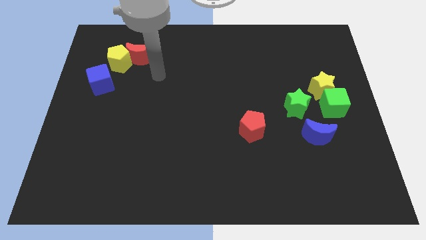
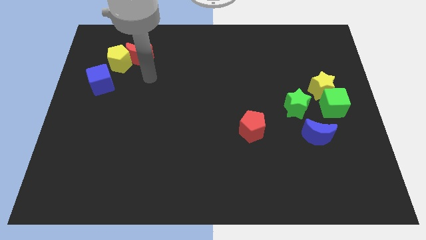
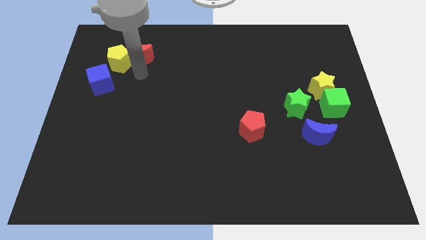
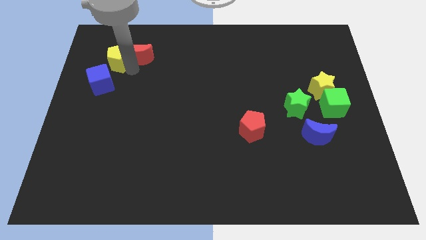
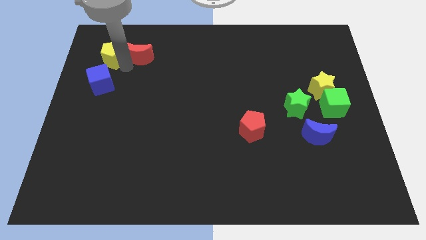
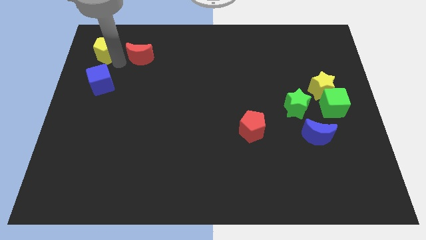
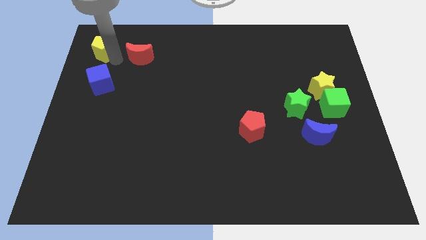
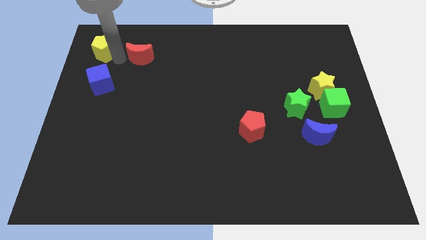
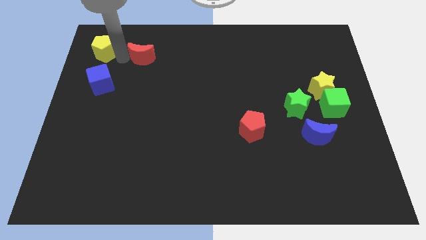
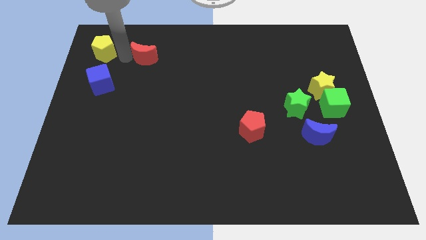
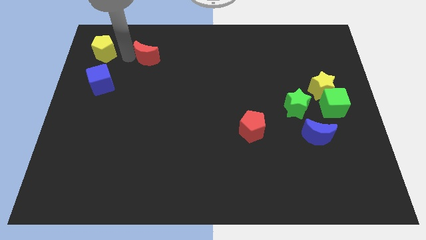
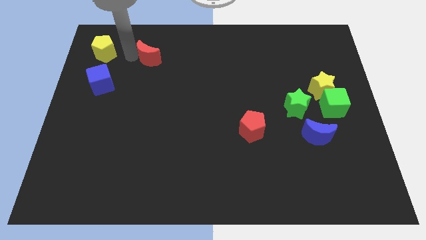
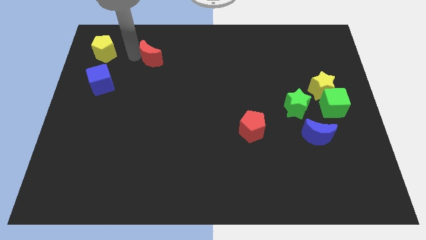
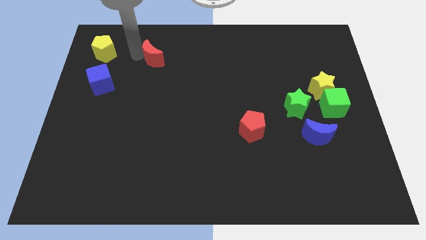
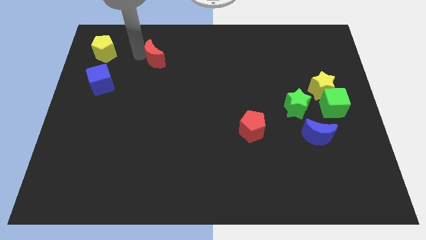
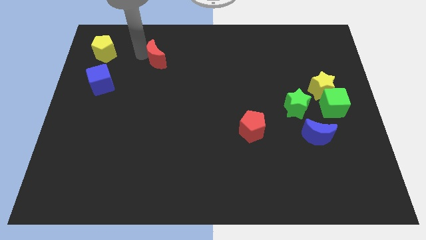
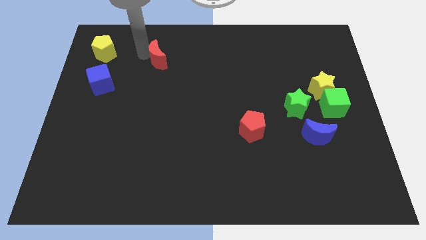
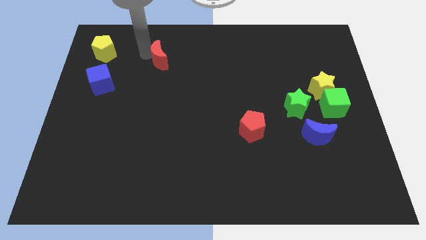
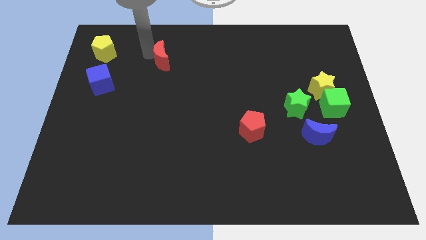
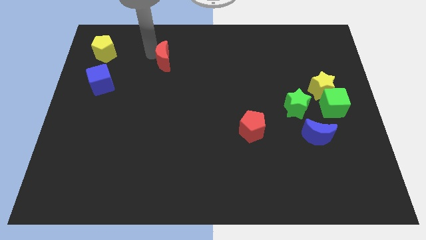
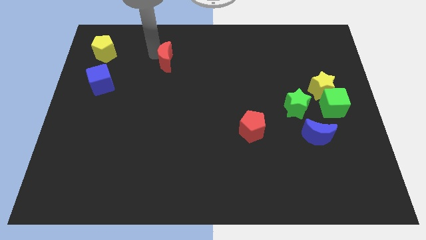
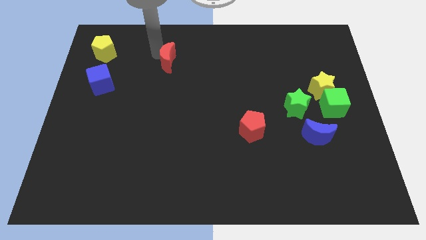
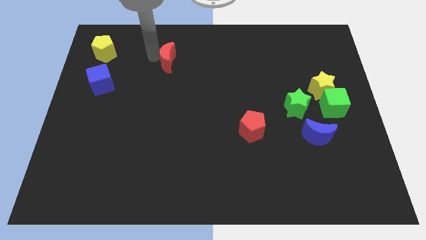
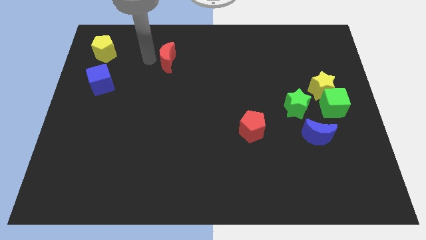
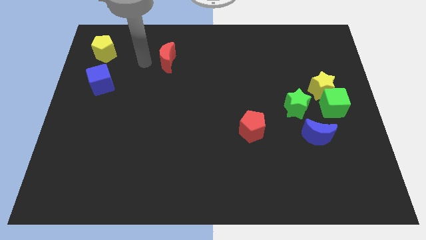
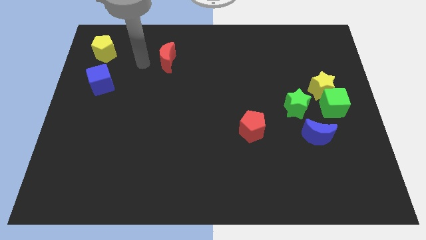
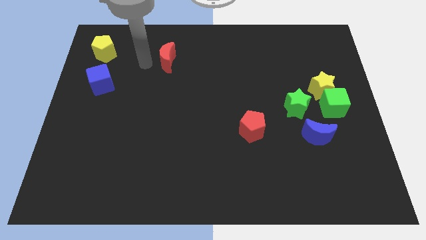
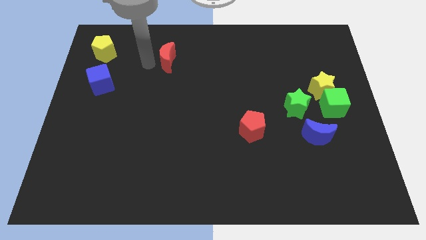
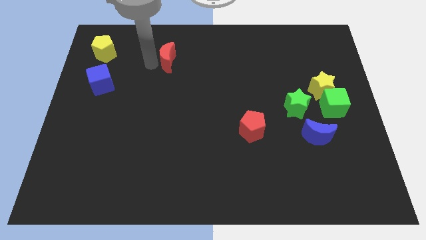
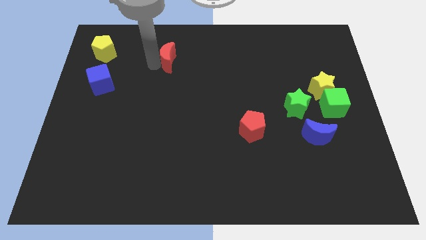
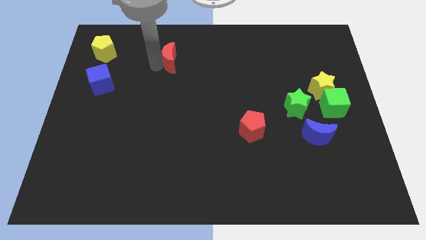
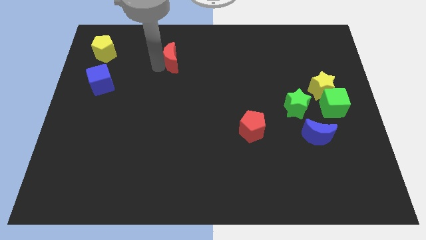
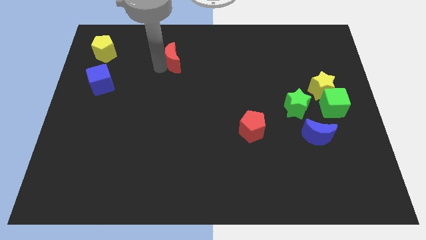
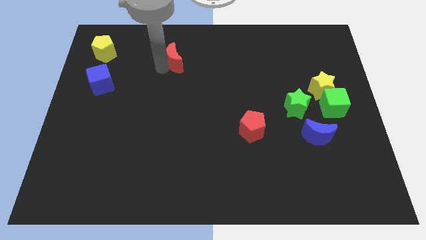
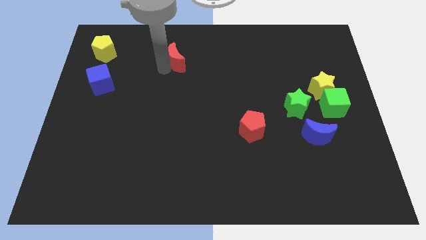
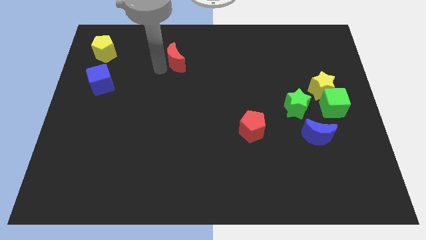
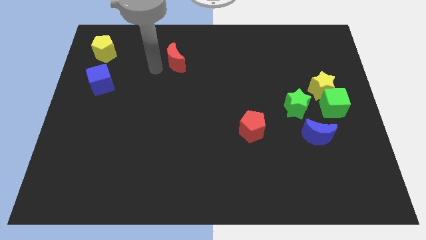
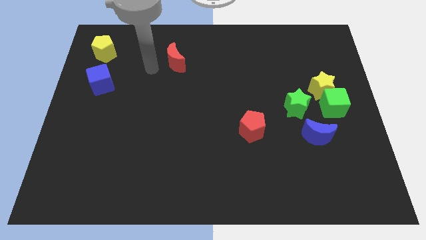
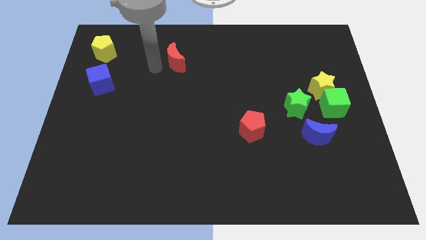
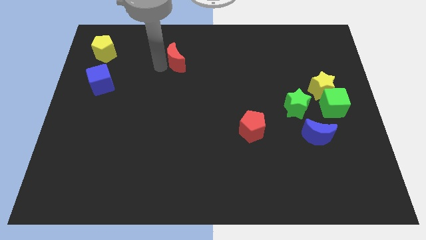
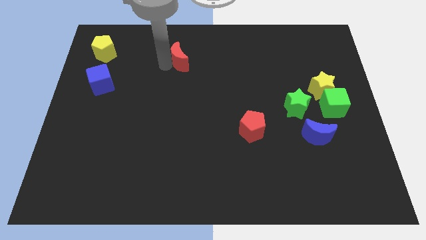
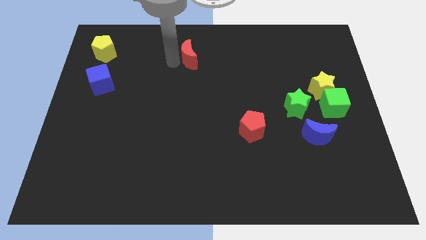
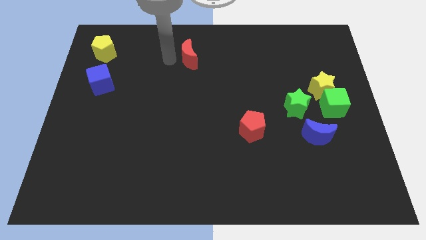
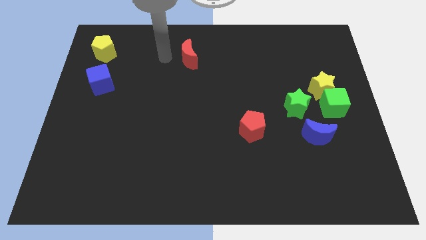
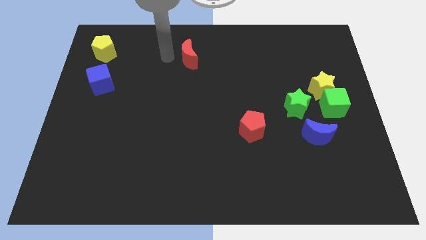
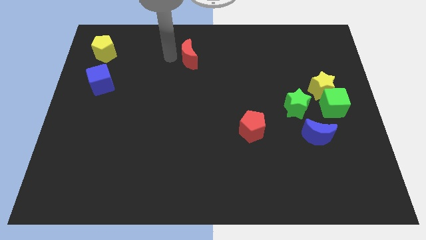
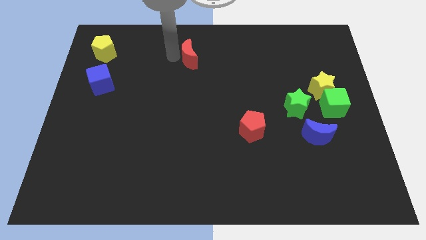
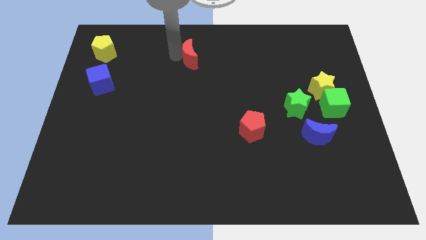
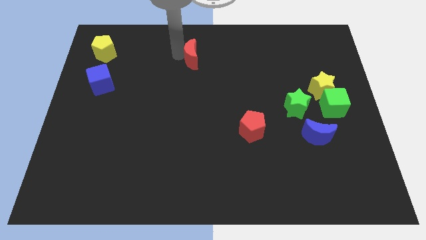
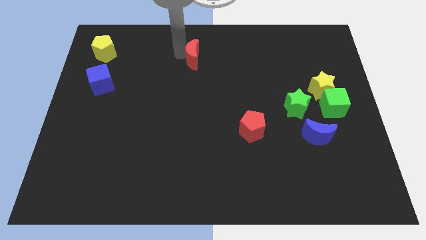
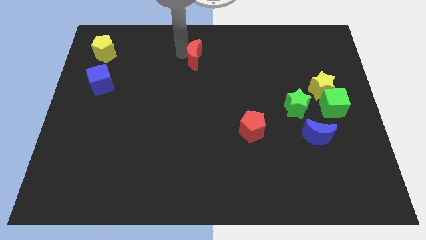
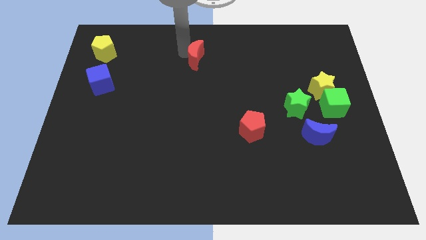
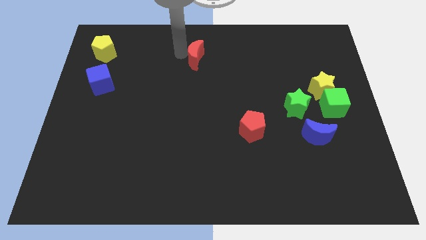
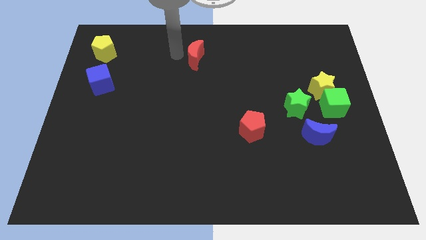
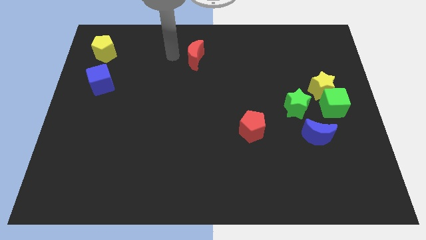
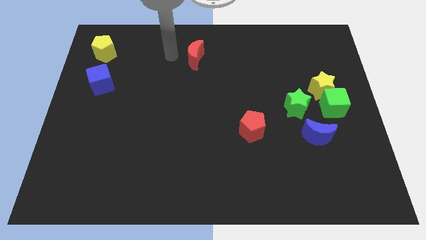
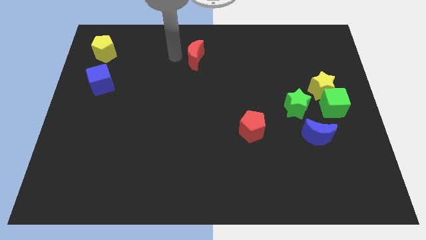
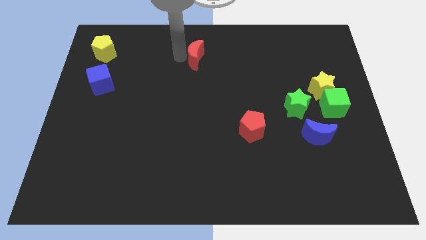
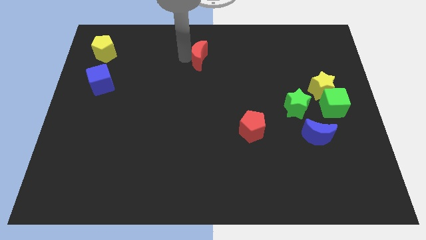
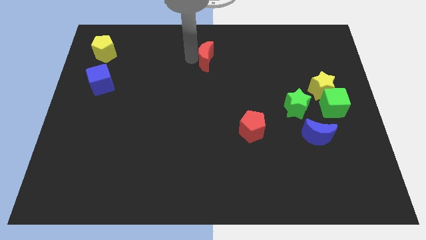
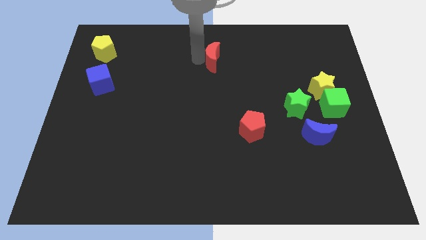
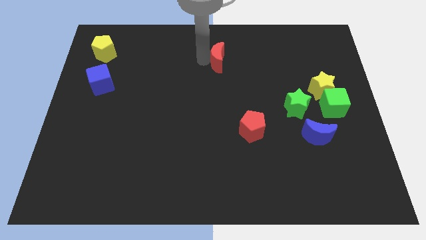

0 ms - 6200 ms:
move the red moon to the right

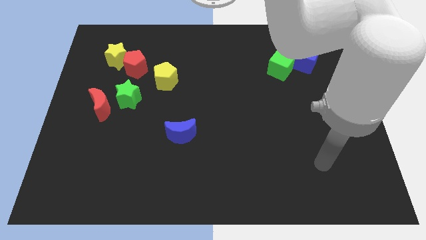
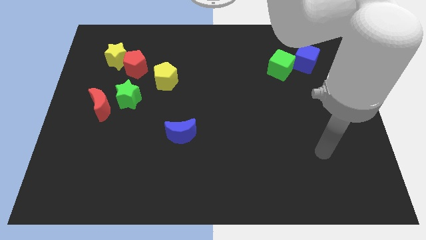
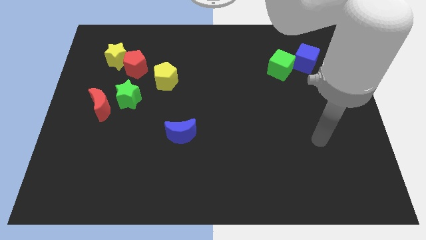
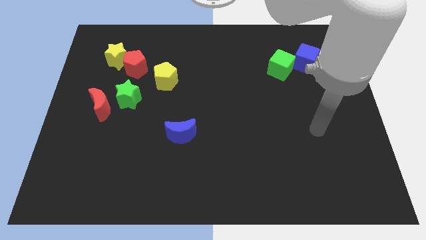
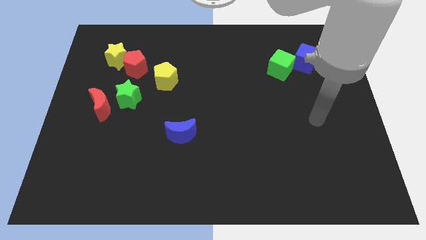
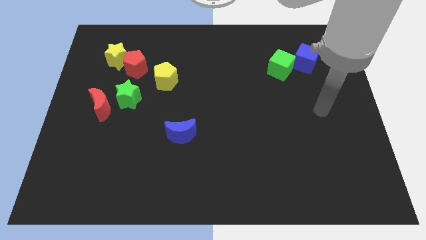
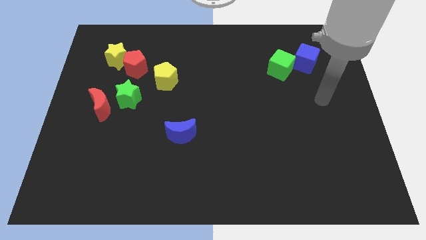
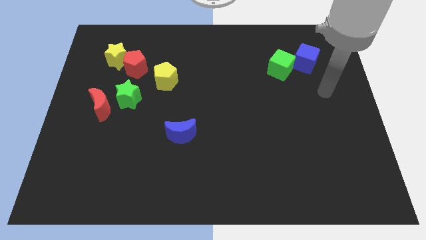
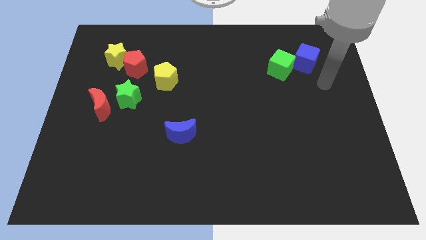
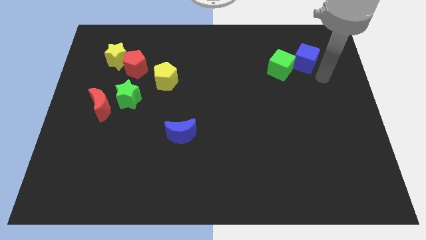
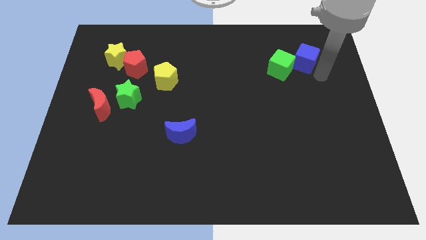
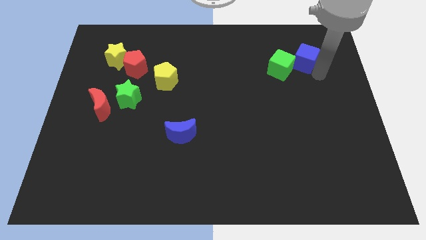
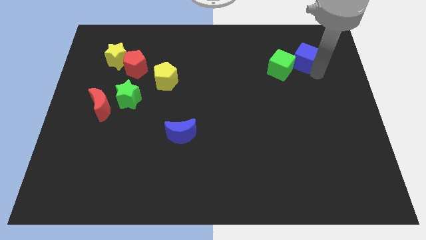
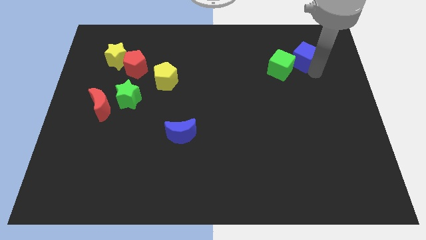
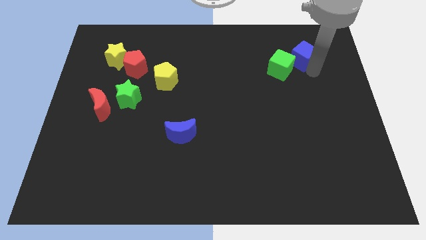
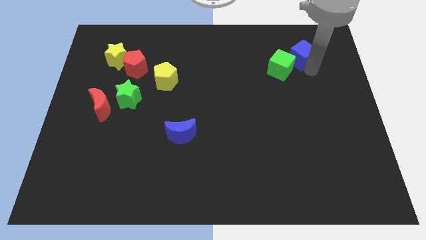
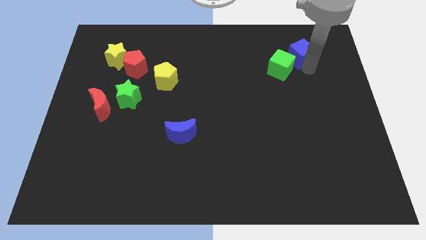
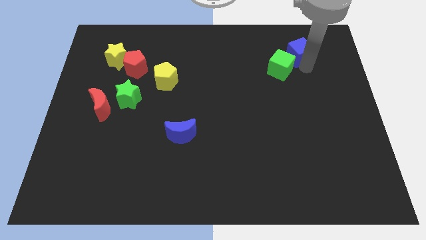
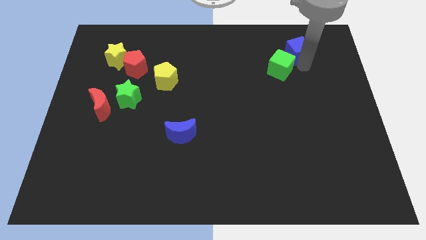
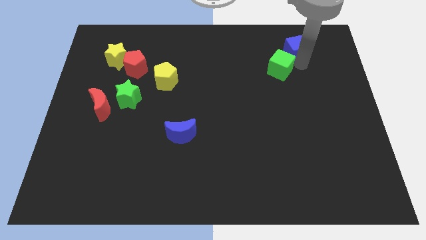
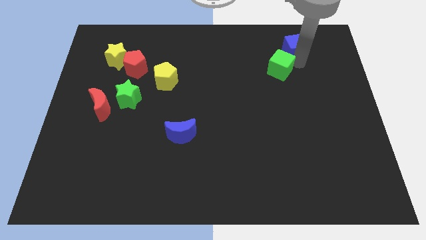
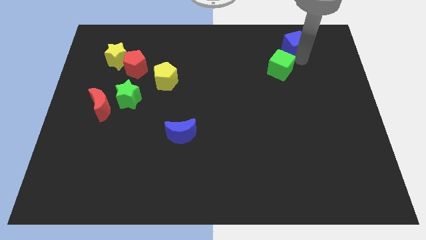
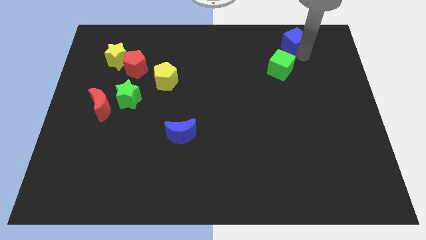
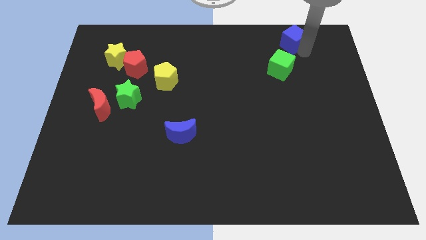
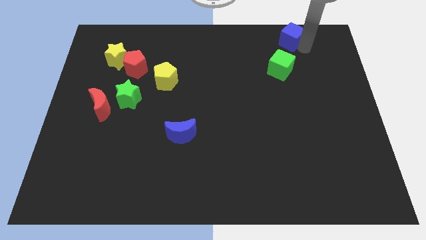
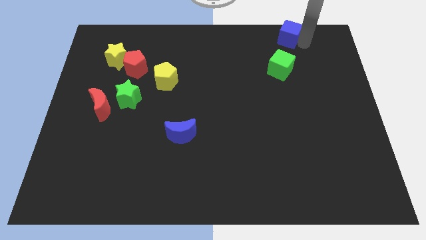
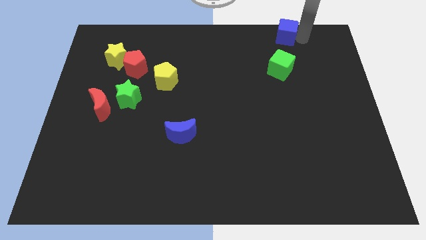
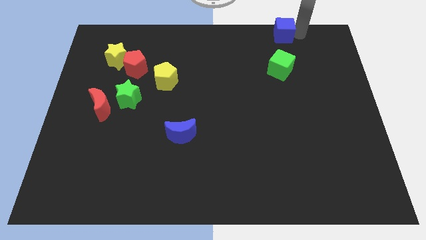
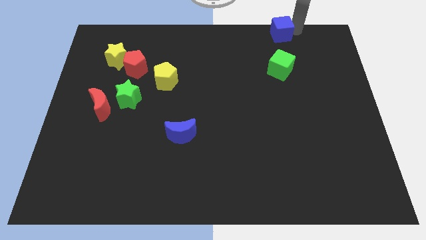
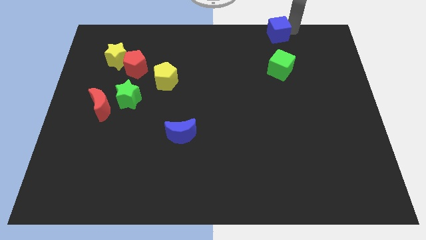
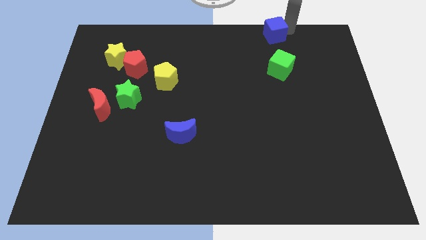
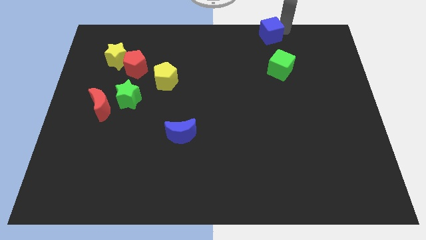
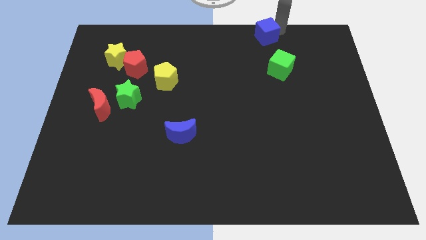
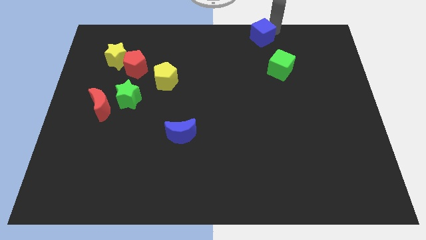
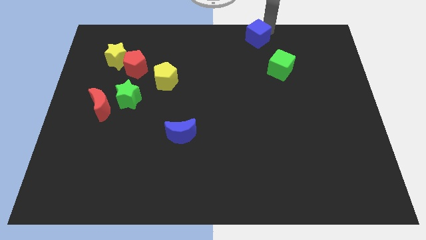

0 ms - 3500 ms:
slightly move the blue cube to the left
